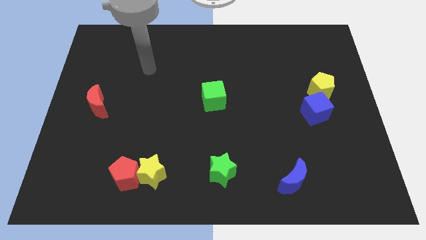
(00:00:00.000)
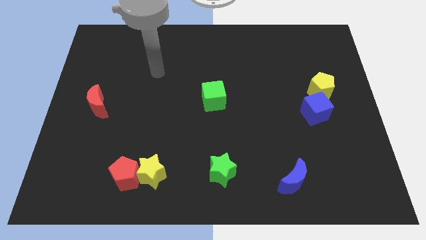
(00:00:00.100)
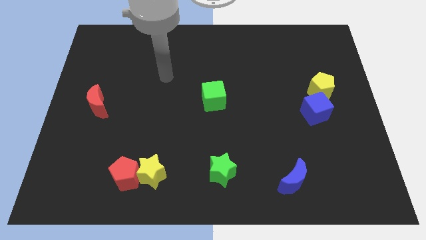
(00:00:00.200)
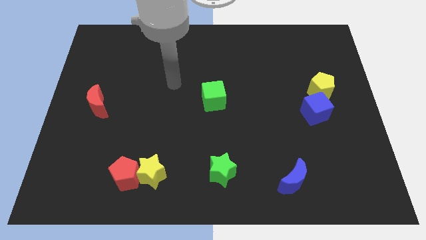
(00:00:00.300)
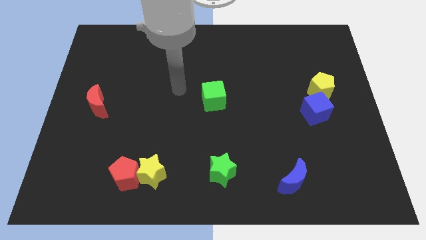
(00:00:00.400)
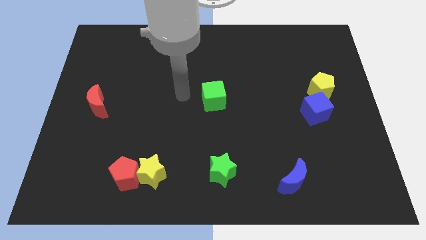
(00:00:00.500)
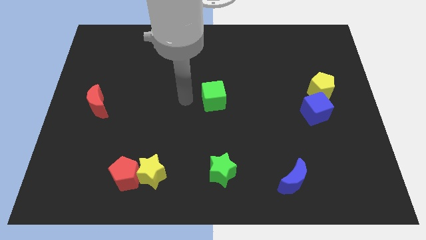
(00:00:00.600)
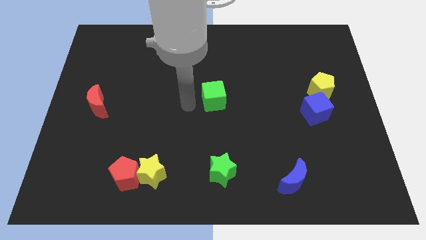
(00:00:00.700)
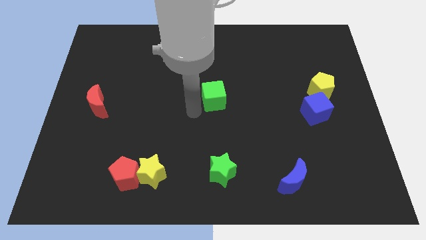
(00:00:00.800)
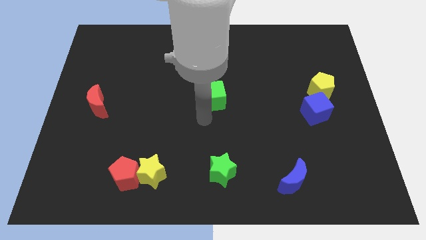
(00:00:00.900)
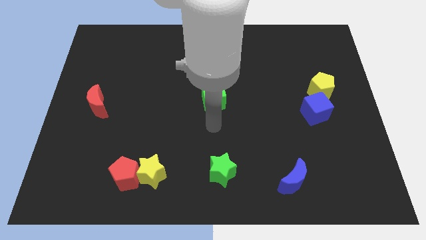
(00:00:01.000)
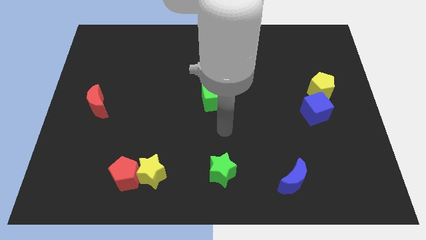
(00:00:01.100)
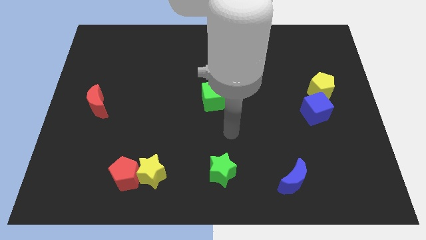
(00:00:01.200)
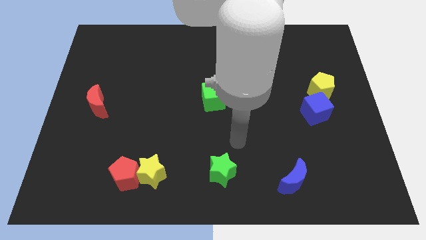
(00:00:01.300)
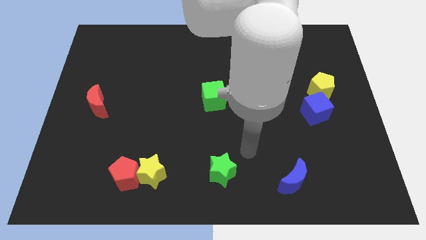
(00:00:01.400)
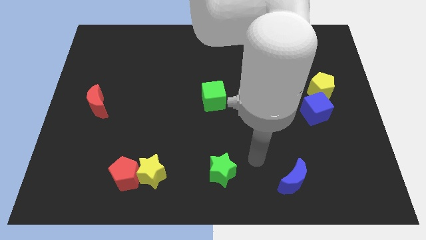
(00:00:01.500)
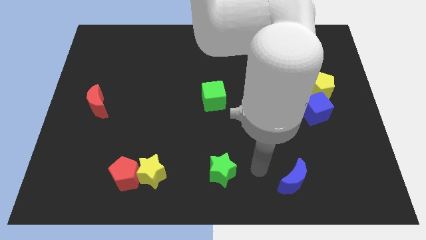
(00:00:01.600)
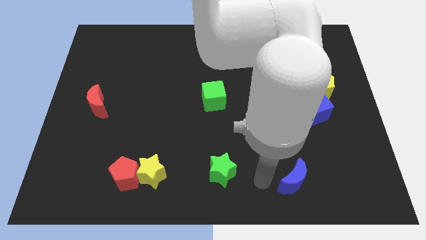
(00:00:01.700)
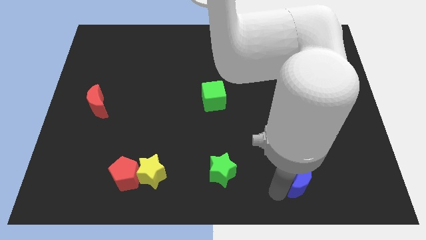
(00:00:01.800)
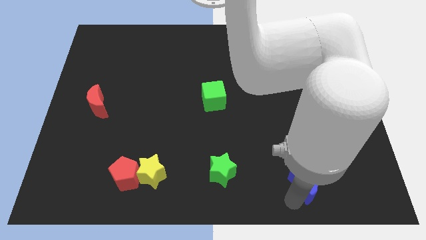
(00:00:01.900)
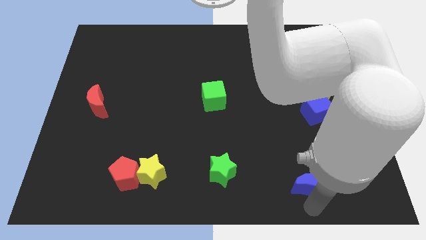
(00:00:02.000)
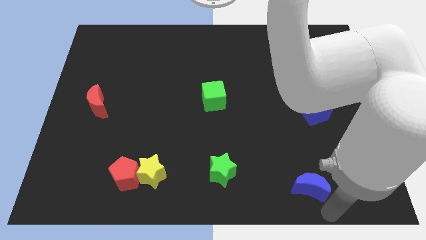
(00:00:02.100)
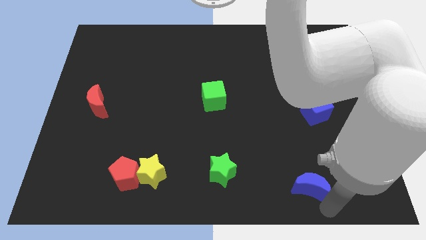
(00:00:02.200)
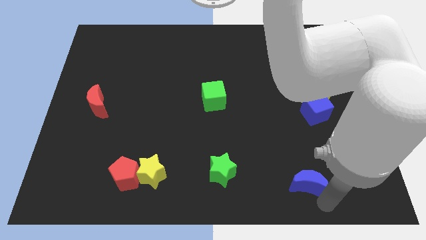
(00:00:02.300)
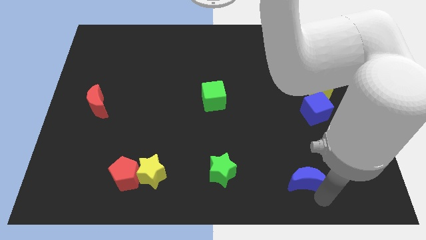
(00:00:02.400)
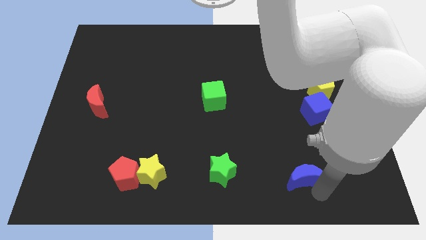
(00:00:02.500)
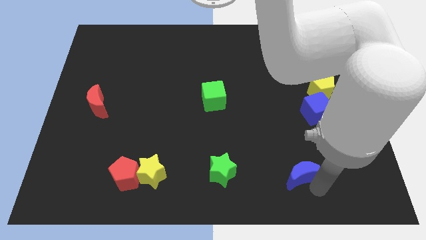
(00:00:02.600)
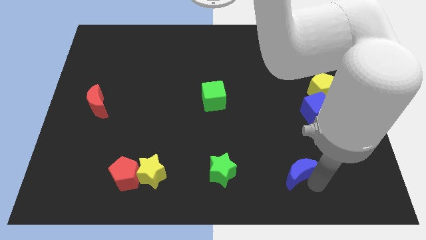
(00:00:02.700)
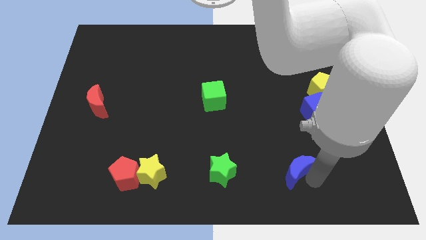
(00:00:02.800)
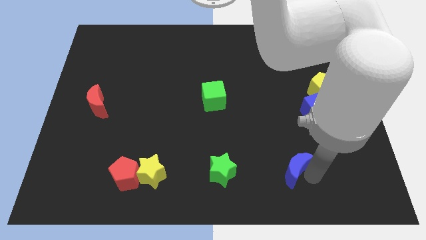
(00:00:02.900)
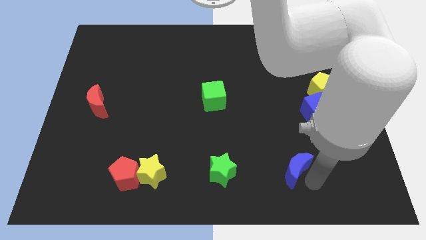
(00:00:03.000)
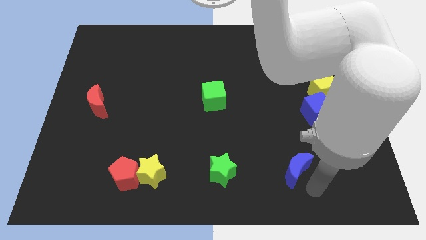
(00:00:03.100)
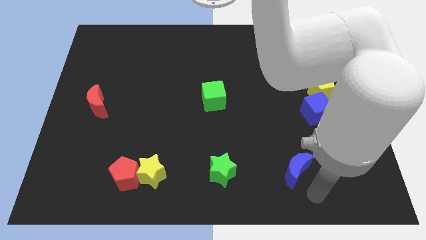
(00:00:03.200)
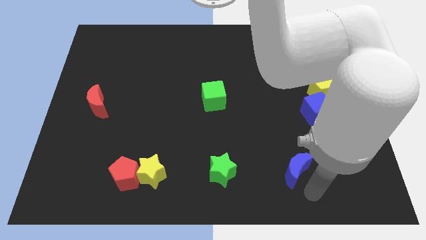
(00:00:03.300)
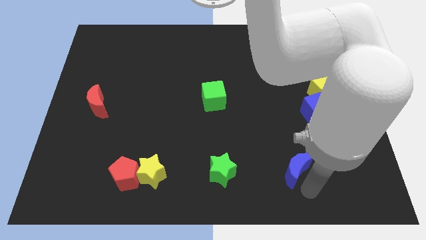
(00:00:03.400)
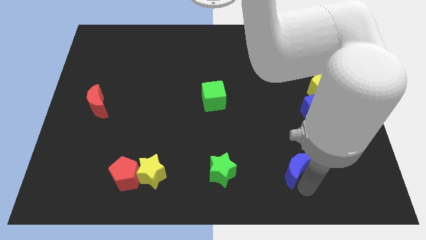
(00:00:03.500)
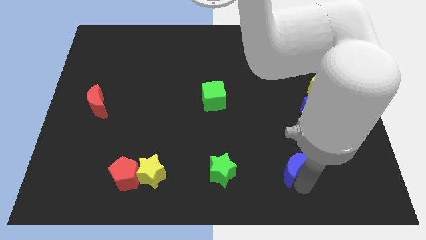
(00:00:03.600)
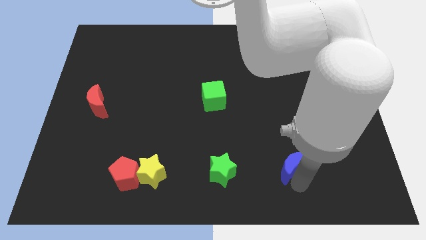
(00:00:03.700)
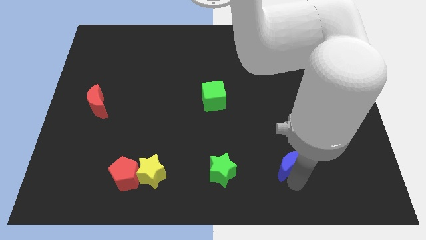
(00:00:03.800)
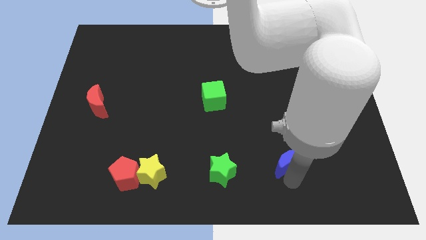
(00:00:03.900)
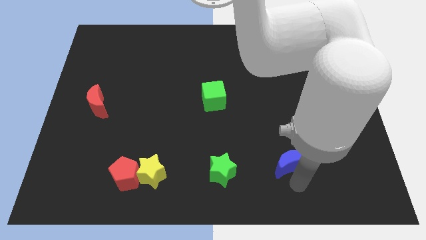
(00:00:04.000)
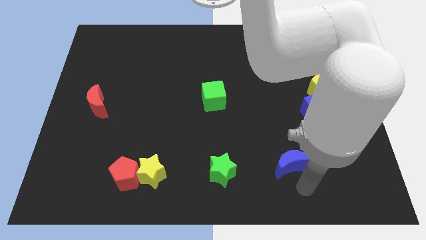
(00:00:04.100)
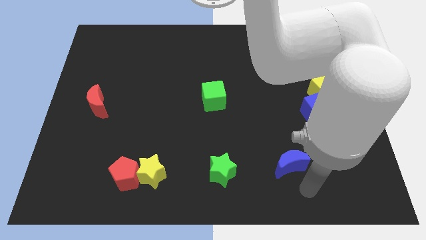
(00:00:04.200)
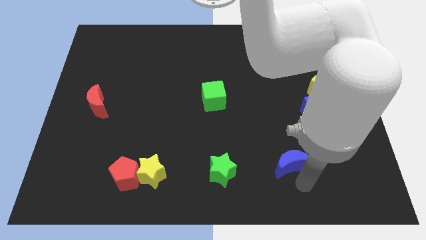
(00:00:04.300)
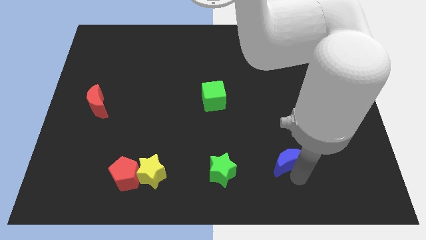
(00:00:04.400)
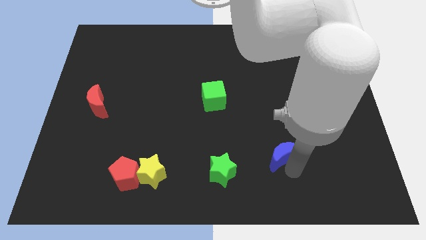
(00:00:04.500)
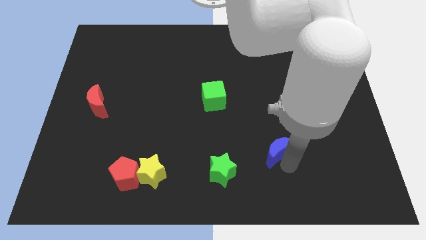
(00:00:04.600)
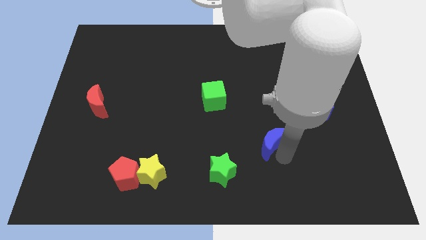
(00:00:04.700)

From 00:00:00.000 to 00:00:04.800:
slightly slide the blue moon up and left diagonally

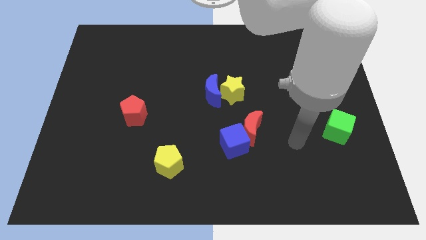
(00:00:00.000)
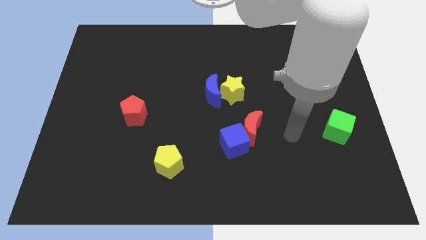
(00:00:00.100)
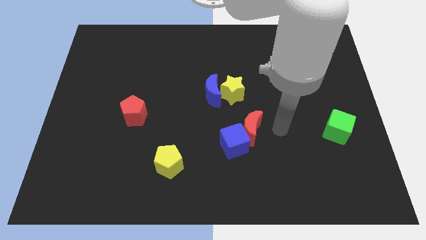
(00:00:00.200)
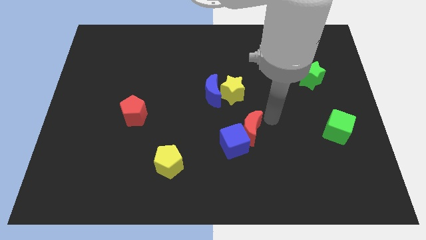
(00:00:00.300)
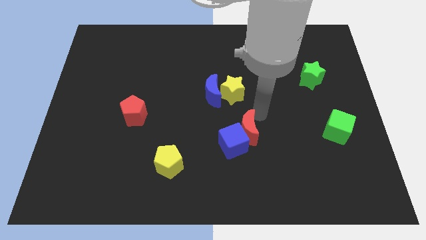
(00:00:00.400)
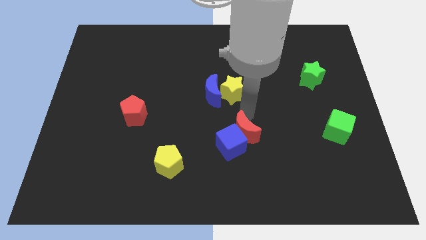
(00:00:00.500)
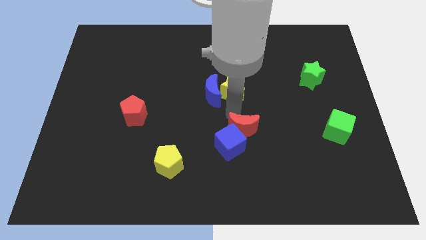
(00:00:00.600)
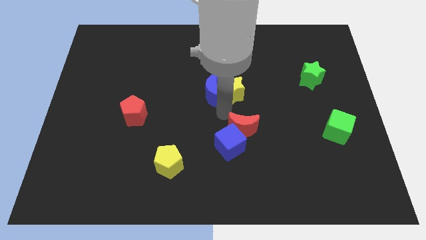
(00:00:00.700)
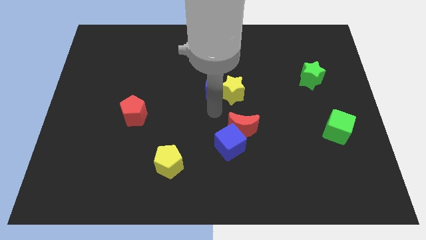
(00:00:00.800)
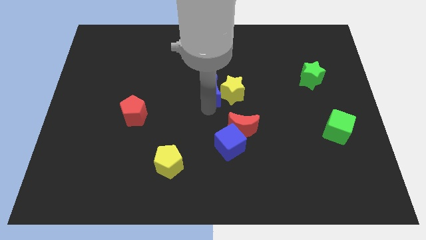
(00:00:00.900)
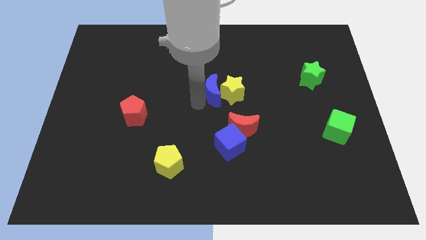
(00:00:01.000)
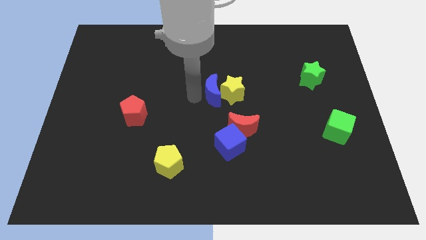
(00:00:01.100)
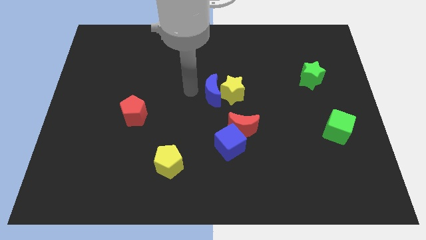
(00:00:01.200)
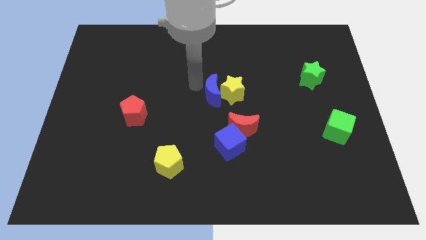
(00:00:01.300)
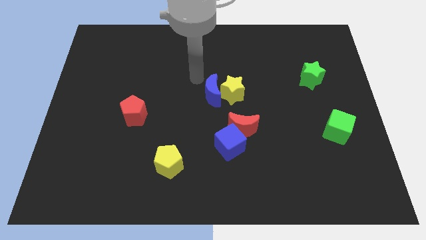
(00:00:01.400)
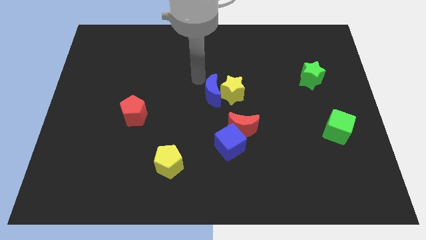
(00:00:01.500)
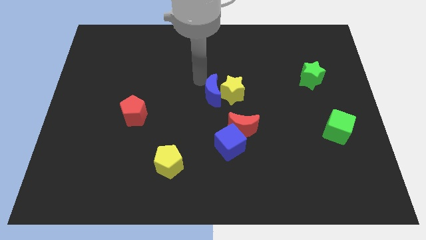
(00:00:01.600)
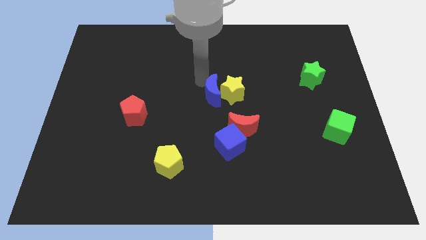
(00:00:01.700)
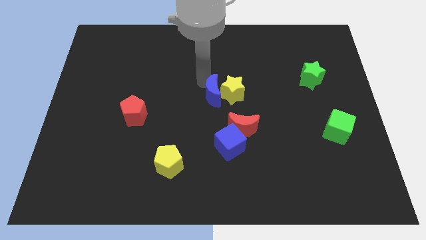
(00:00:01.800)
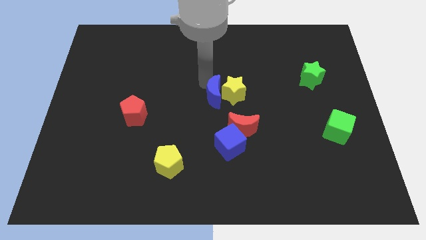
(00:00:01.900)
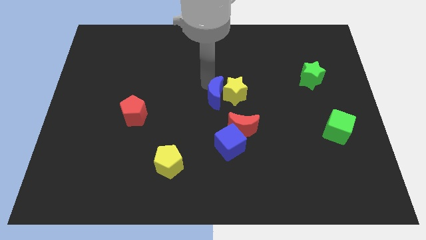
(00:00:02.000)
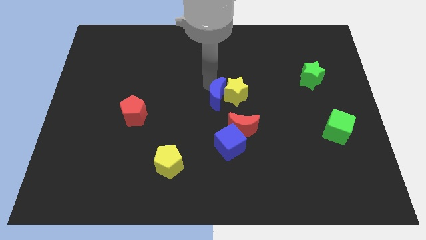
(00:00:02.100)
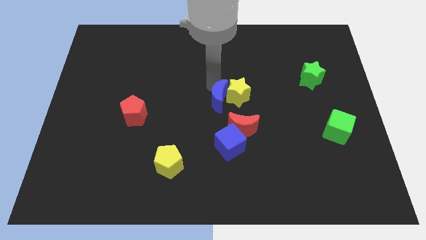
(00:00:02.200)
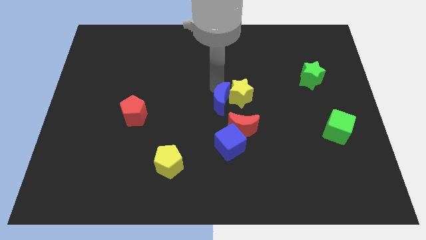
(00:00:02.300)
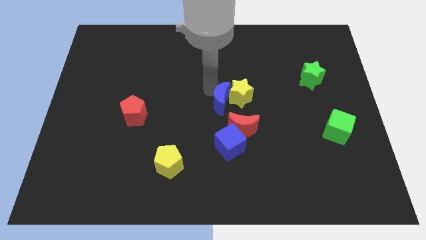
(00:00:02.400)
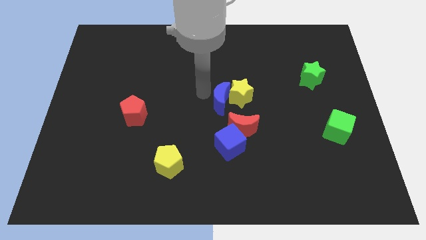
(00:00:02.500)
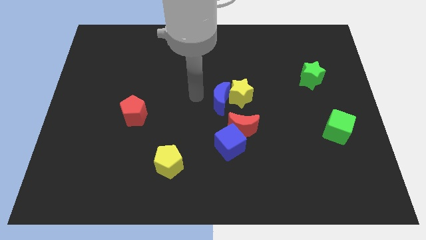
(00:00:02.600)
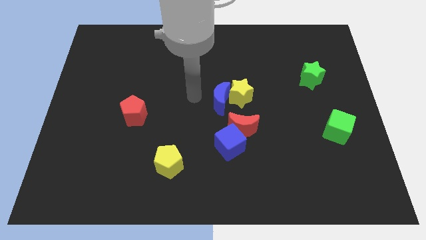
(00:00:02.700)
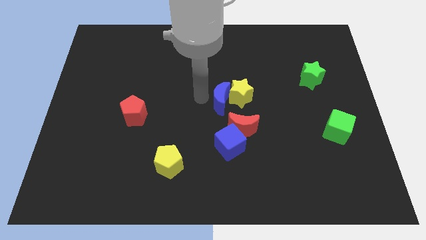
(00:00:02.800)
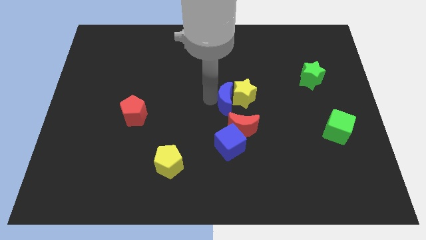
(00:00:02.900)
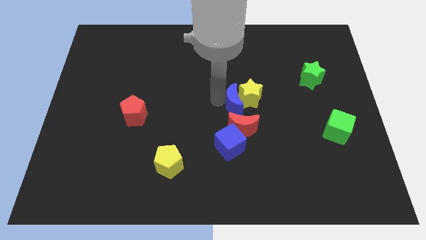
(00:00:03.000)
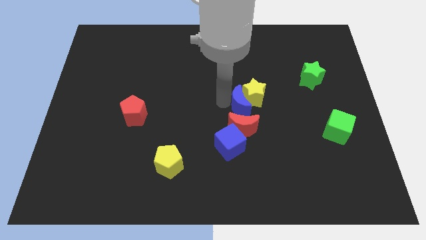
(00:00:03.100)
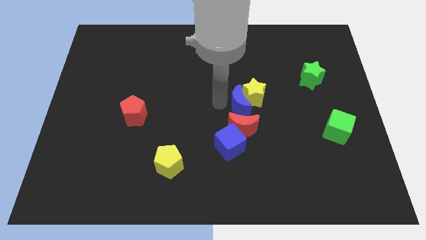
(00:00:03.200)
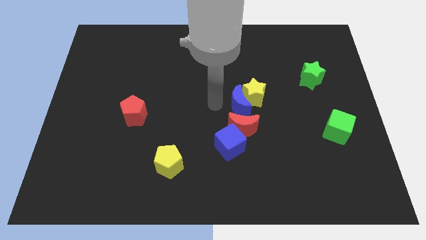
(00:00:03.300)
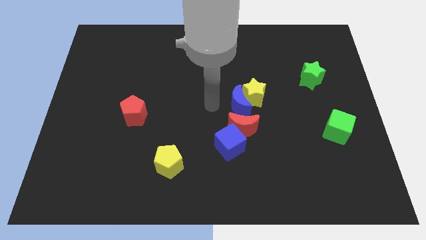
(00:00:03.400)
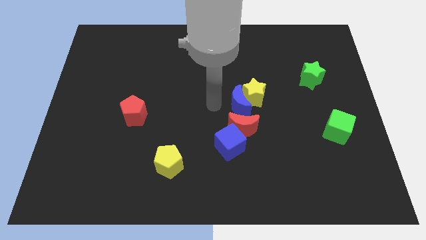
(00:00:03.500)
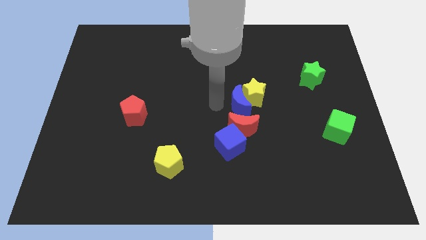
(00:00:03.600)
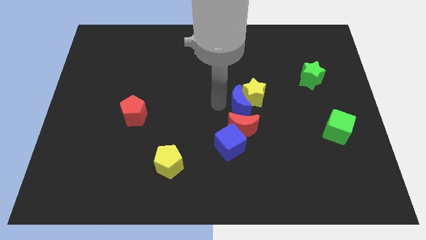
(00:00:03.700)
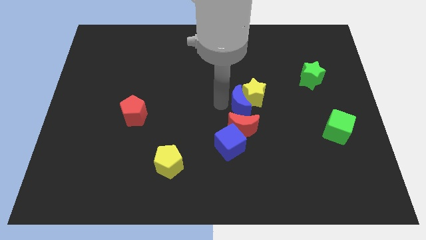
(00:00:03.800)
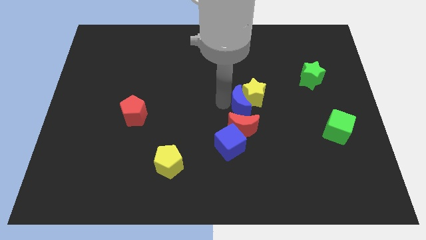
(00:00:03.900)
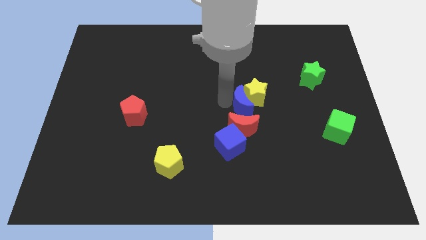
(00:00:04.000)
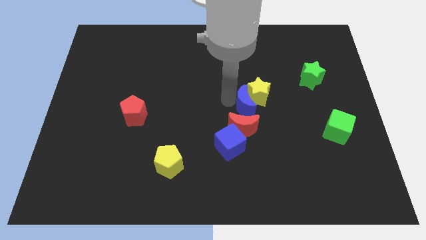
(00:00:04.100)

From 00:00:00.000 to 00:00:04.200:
slide the blue moon right somewhat
